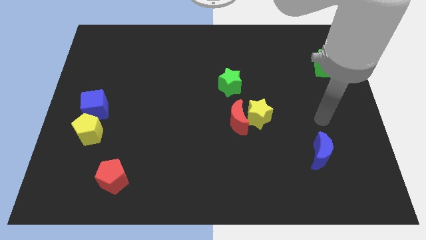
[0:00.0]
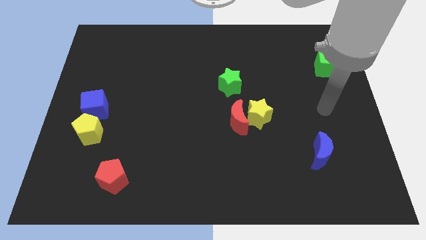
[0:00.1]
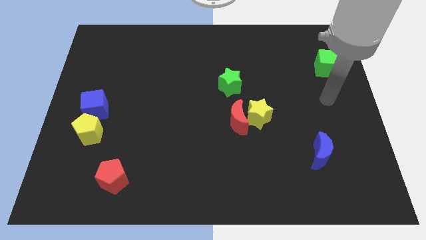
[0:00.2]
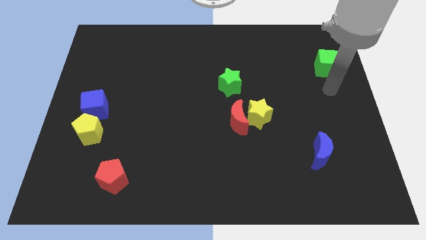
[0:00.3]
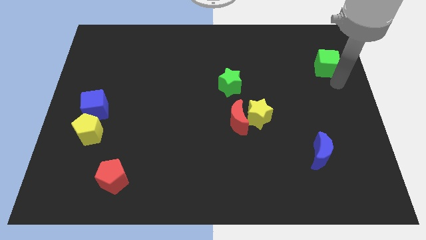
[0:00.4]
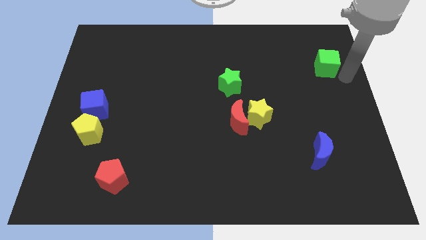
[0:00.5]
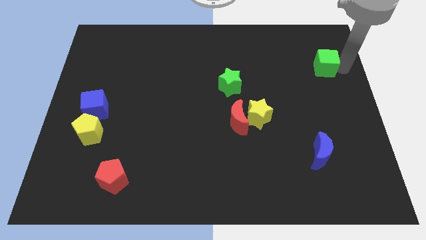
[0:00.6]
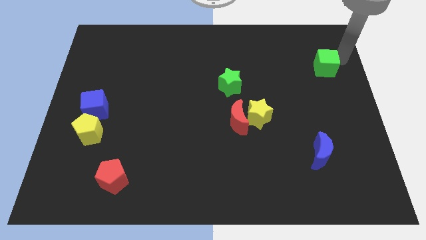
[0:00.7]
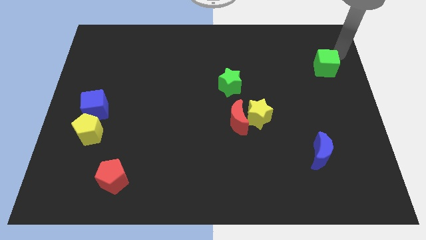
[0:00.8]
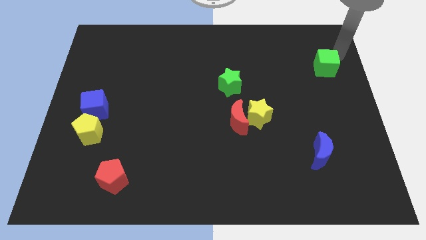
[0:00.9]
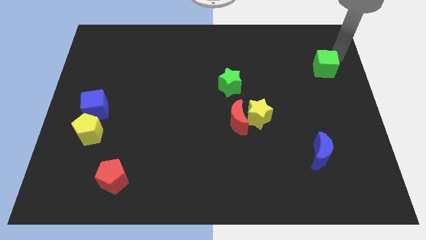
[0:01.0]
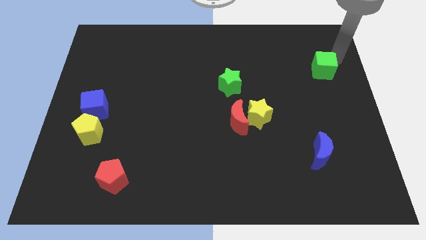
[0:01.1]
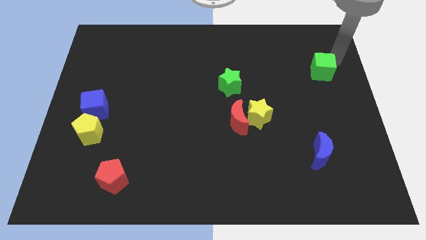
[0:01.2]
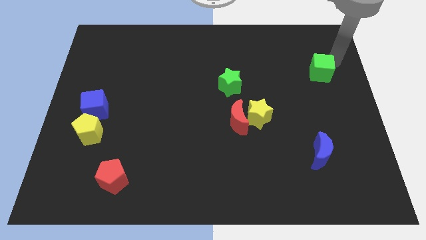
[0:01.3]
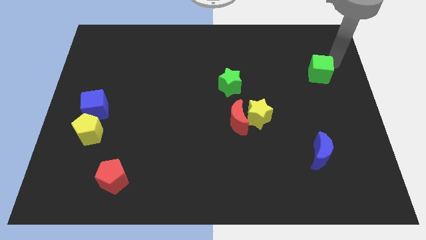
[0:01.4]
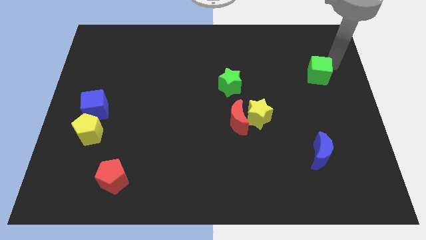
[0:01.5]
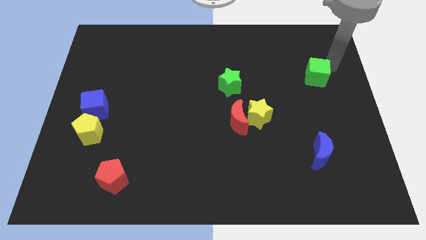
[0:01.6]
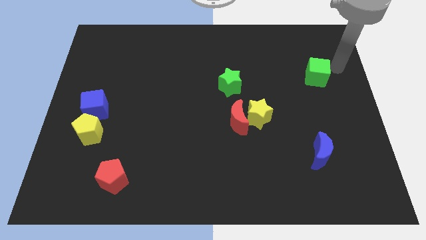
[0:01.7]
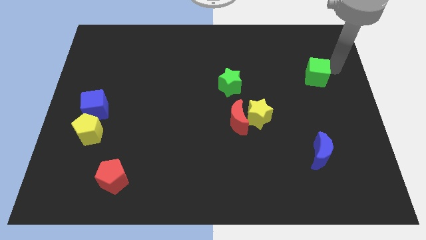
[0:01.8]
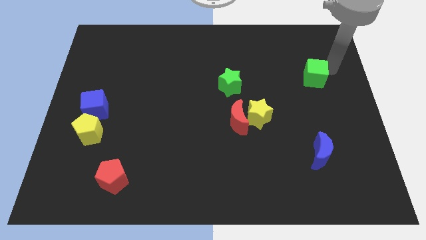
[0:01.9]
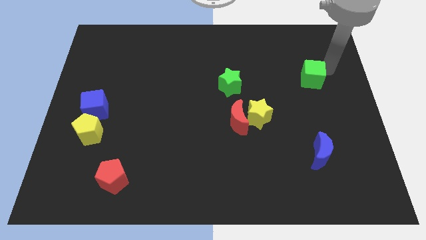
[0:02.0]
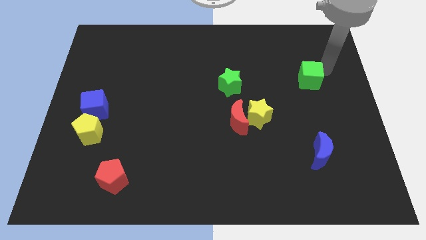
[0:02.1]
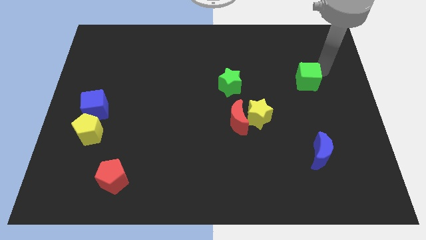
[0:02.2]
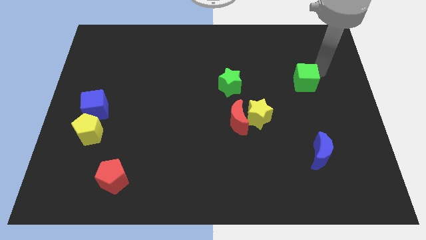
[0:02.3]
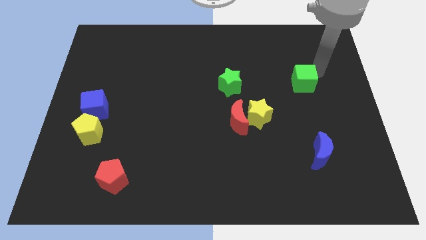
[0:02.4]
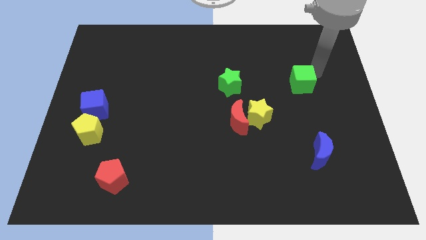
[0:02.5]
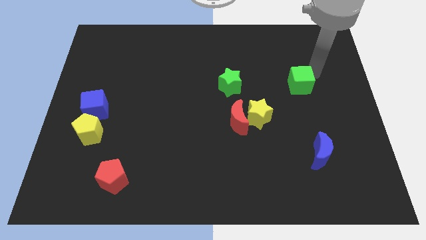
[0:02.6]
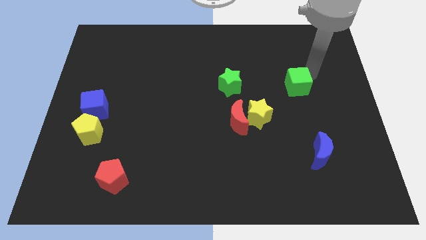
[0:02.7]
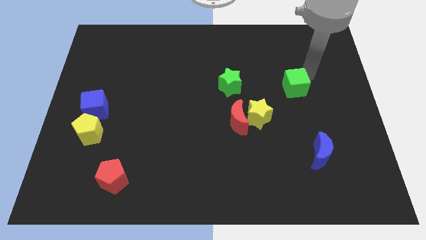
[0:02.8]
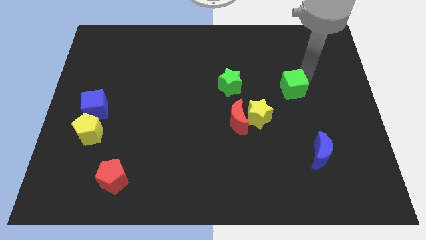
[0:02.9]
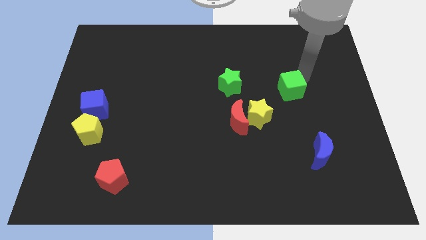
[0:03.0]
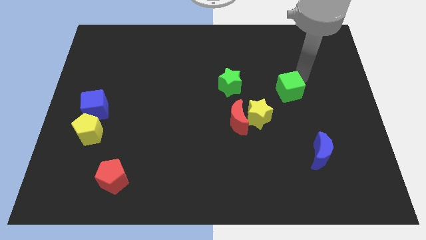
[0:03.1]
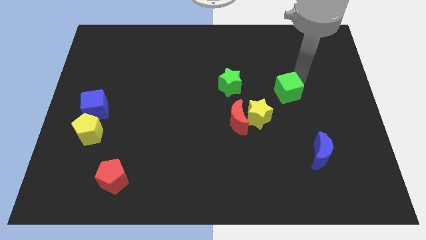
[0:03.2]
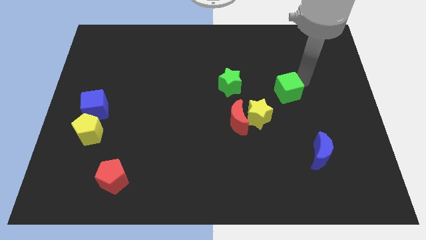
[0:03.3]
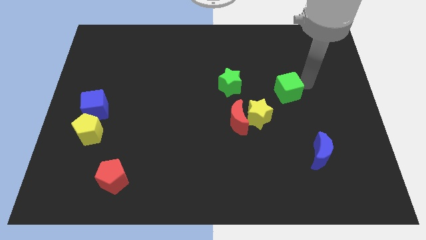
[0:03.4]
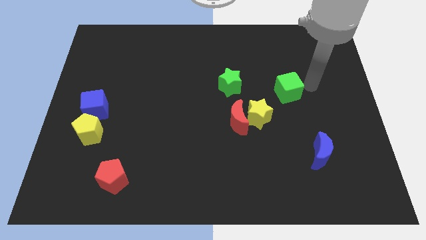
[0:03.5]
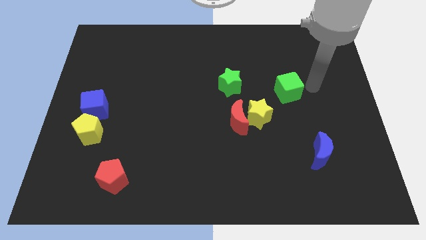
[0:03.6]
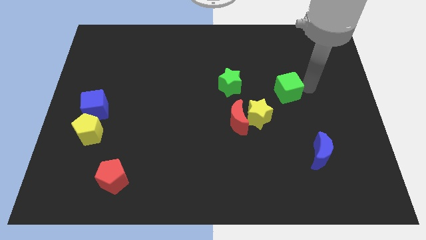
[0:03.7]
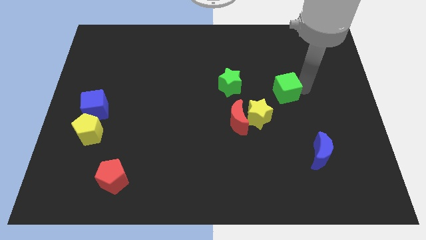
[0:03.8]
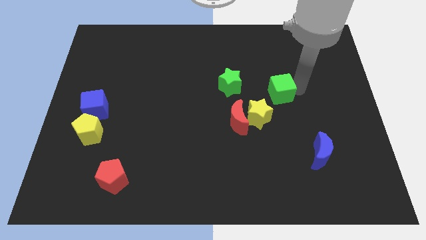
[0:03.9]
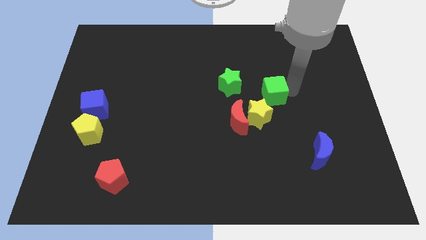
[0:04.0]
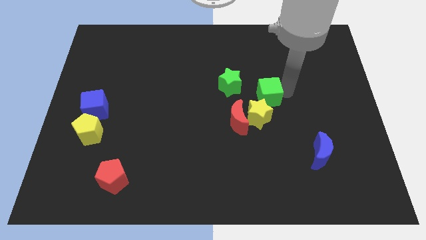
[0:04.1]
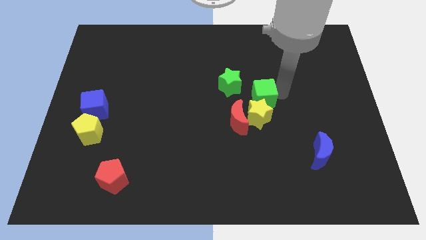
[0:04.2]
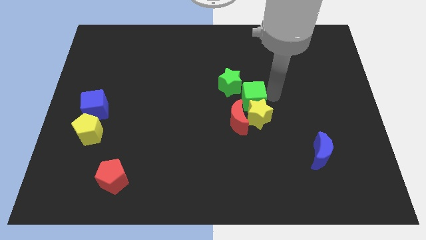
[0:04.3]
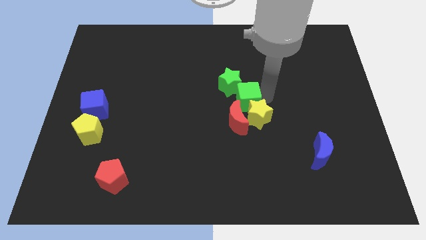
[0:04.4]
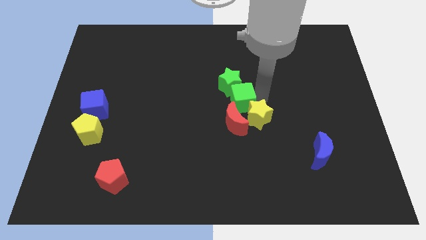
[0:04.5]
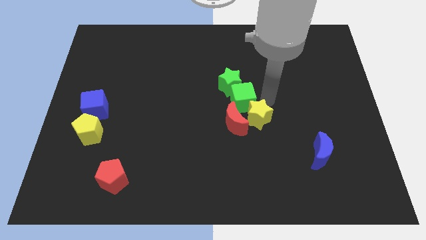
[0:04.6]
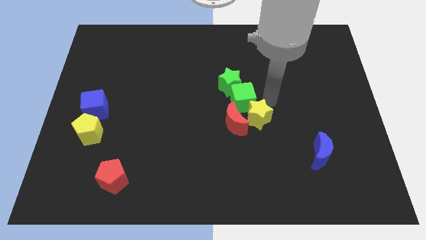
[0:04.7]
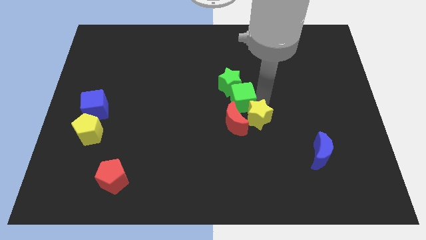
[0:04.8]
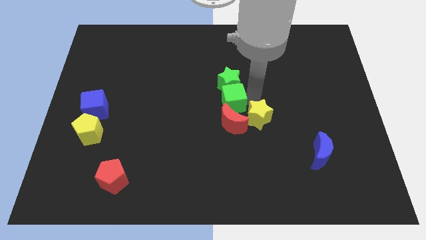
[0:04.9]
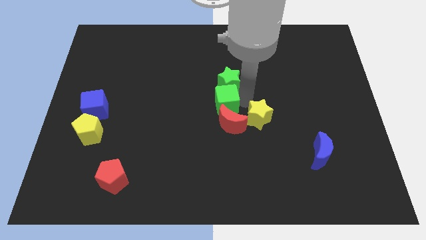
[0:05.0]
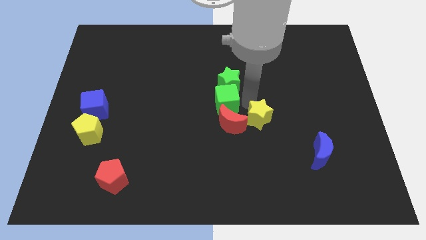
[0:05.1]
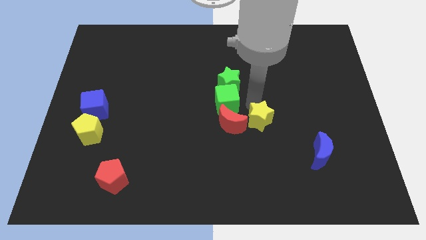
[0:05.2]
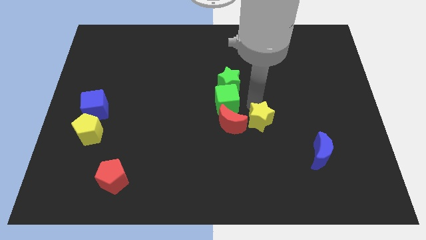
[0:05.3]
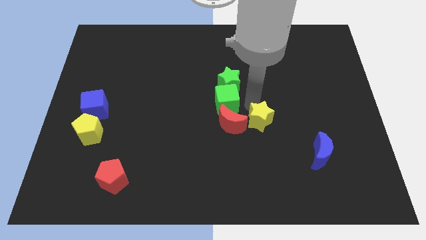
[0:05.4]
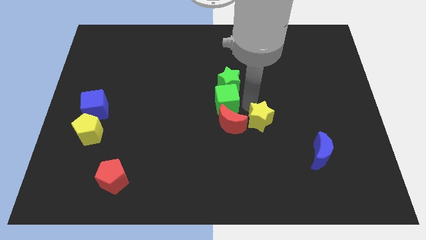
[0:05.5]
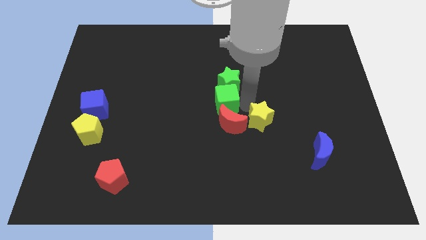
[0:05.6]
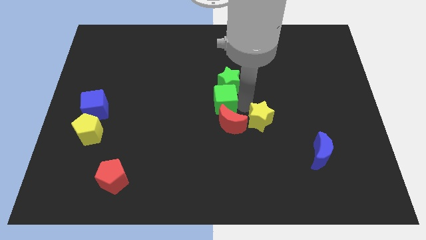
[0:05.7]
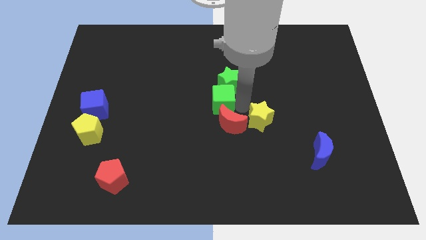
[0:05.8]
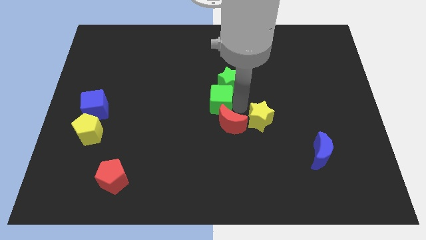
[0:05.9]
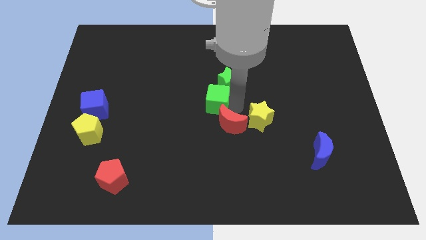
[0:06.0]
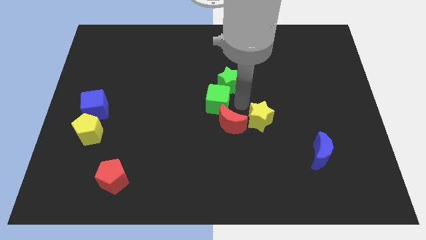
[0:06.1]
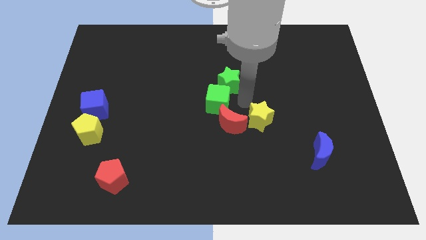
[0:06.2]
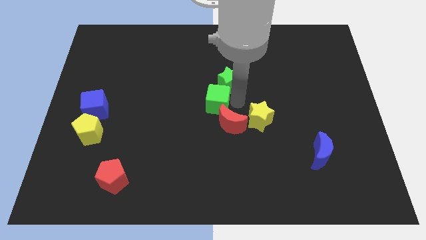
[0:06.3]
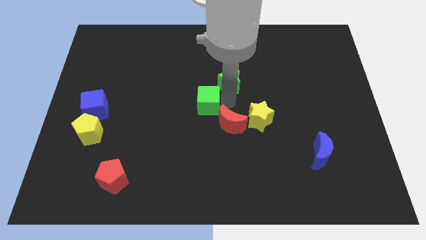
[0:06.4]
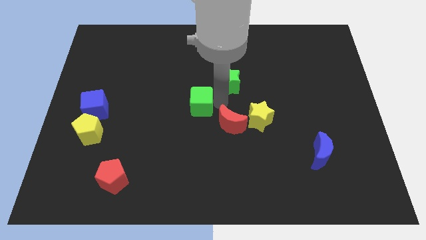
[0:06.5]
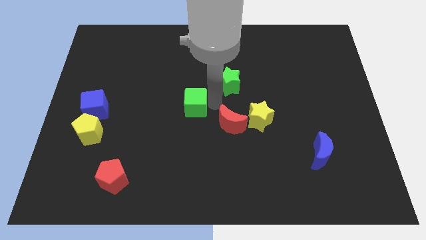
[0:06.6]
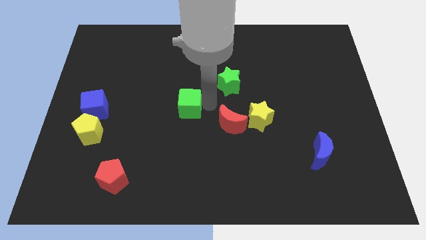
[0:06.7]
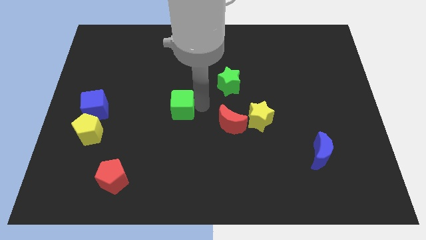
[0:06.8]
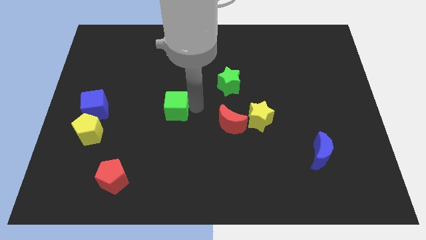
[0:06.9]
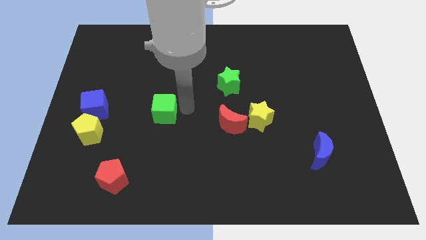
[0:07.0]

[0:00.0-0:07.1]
move the green cube just right of the blue cube

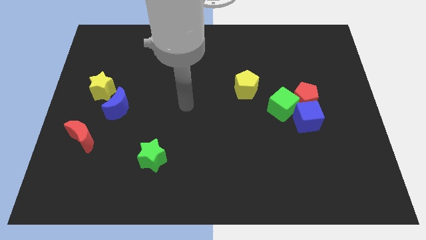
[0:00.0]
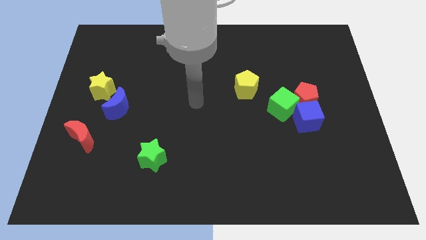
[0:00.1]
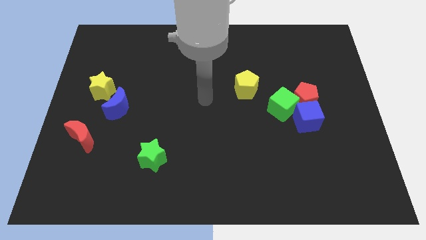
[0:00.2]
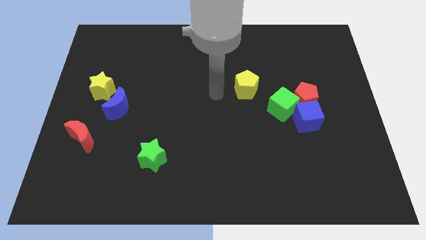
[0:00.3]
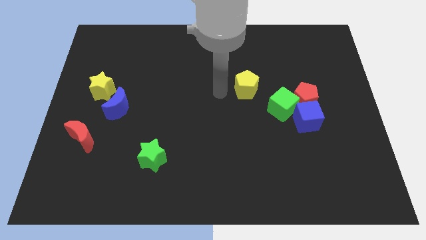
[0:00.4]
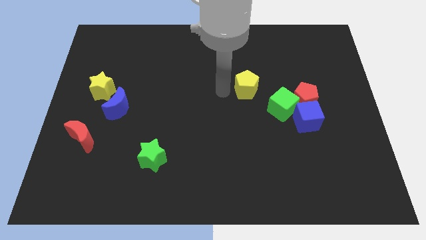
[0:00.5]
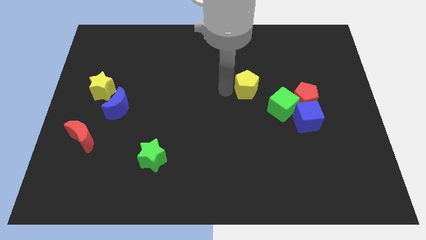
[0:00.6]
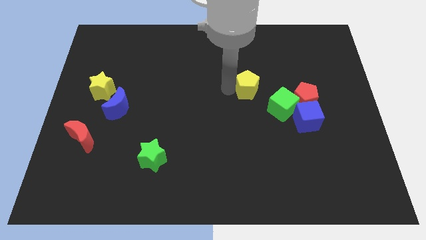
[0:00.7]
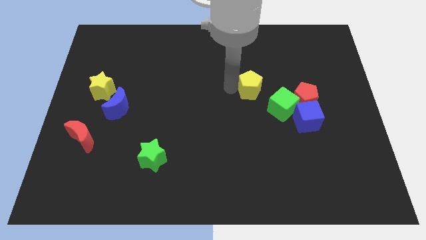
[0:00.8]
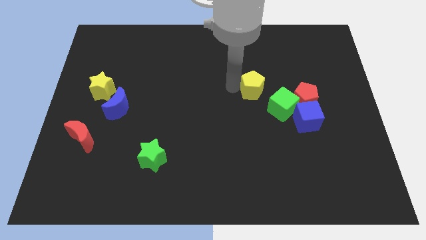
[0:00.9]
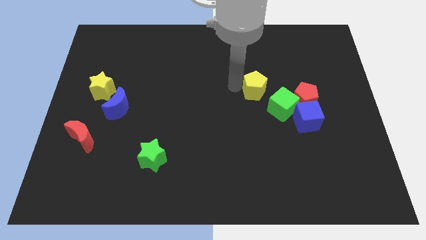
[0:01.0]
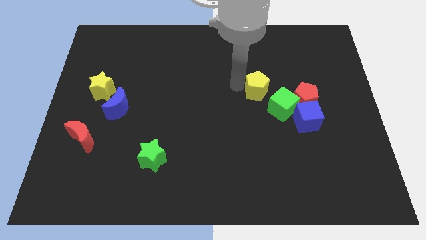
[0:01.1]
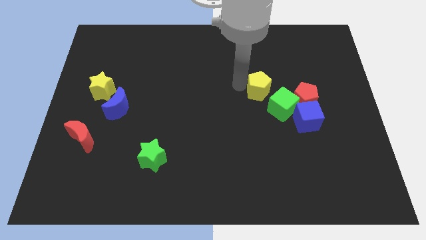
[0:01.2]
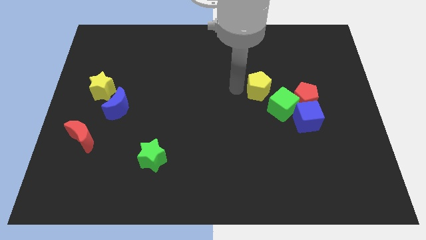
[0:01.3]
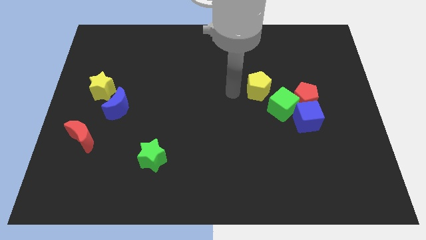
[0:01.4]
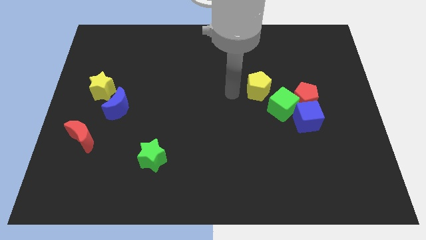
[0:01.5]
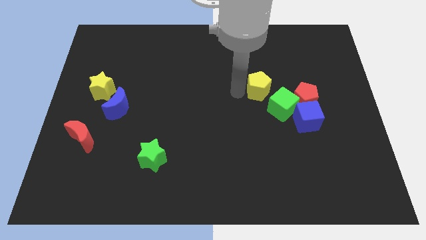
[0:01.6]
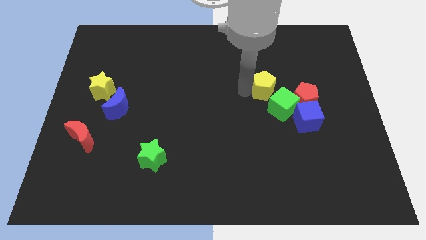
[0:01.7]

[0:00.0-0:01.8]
push the yellow pentagon to the top left side of the red pentagon
